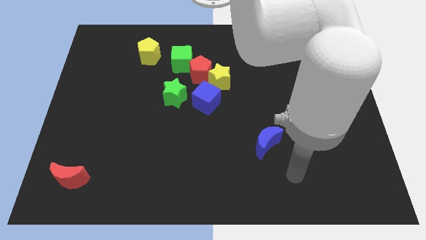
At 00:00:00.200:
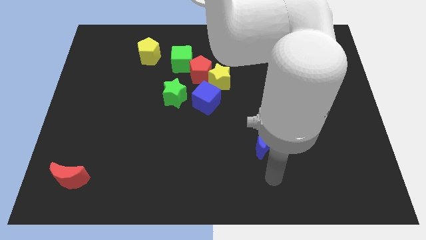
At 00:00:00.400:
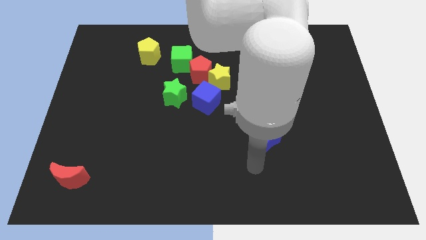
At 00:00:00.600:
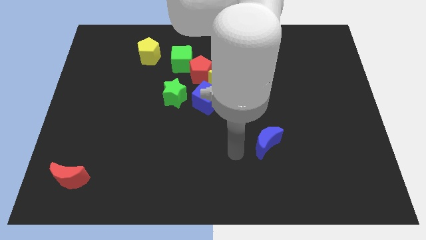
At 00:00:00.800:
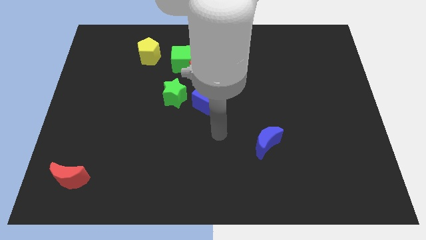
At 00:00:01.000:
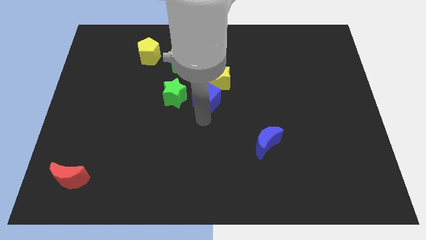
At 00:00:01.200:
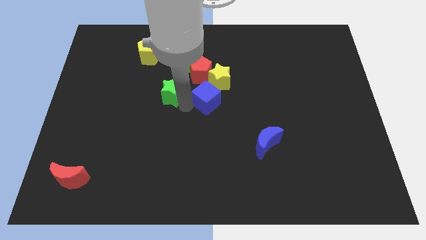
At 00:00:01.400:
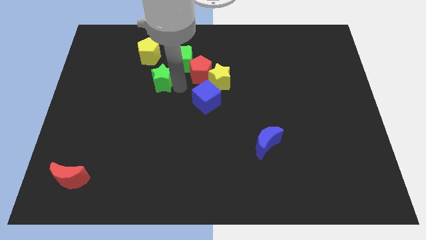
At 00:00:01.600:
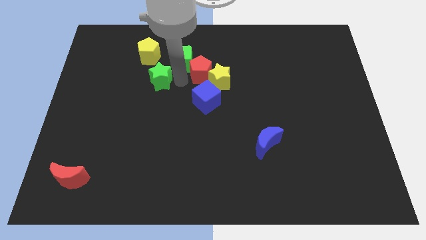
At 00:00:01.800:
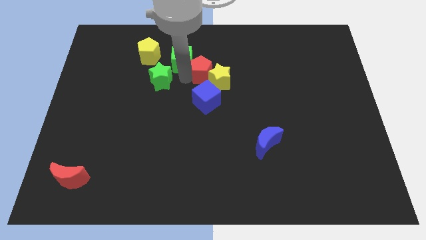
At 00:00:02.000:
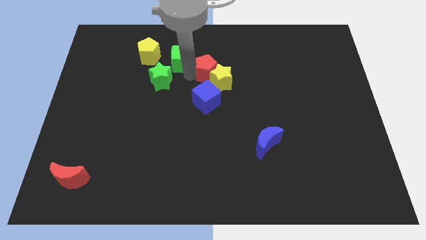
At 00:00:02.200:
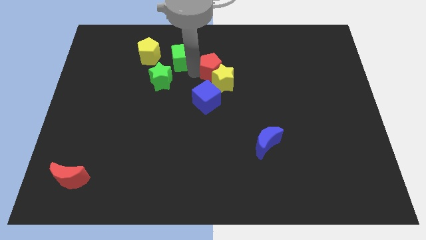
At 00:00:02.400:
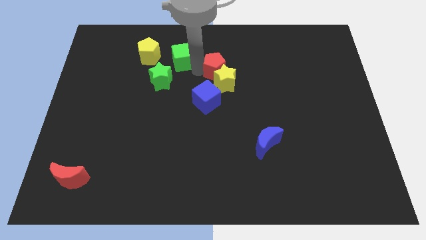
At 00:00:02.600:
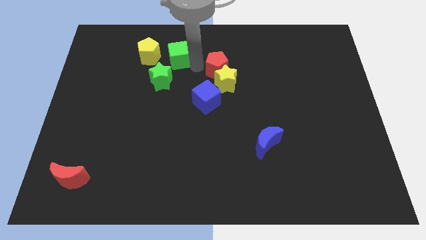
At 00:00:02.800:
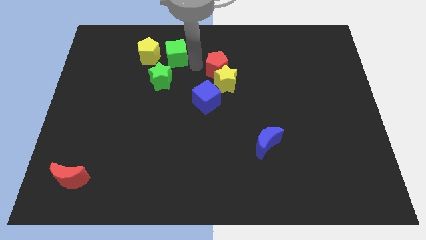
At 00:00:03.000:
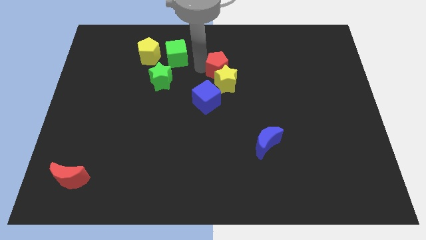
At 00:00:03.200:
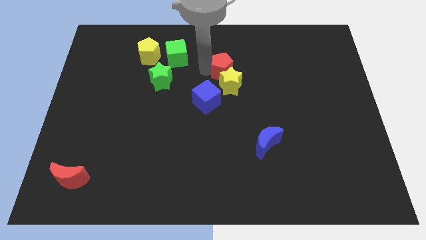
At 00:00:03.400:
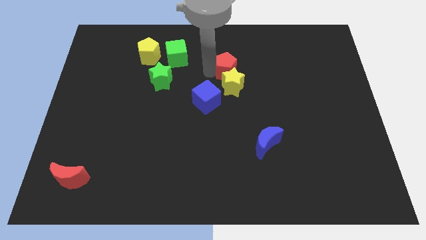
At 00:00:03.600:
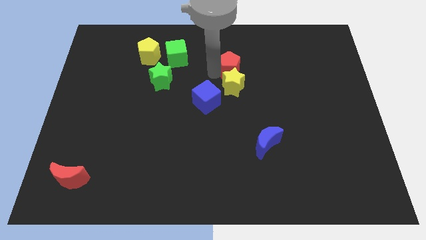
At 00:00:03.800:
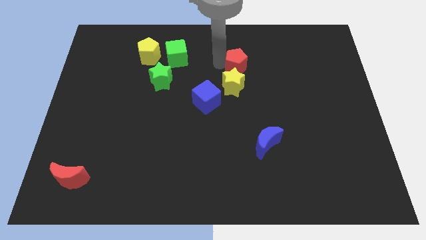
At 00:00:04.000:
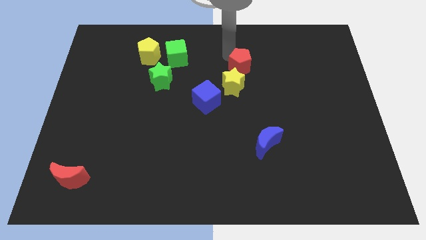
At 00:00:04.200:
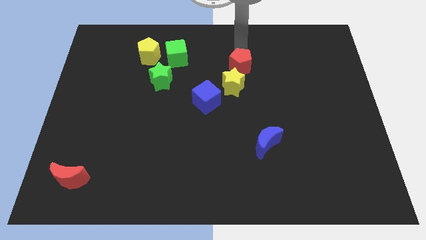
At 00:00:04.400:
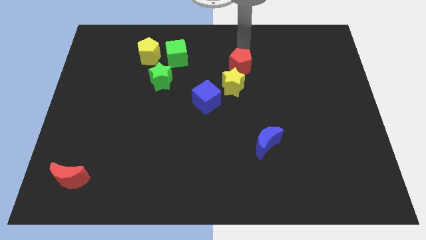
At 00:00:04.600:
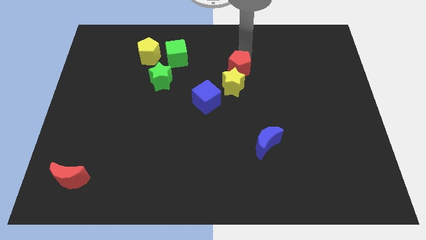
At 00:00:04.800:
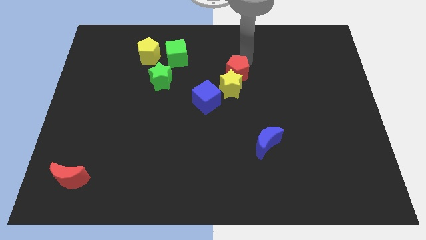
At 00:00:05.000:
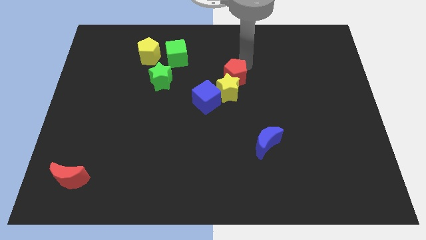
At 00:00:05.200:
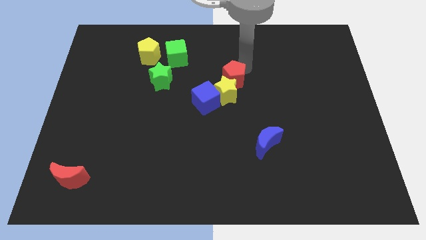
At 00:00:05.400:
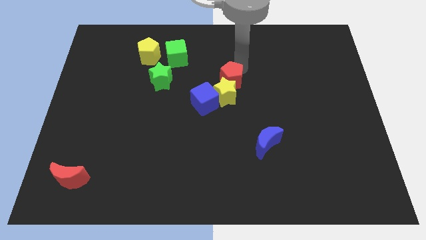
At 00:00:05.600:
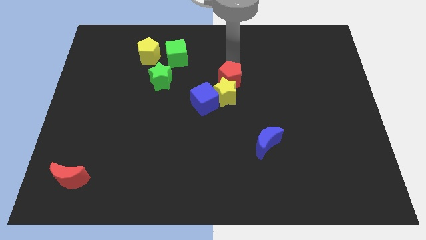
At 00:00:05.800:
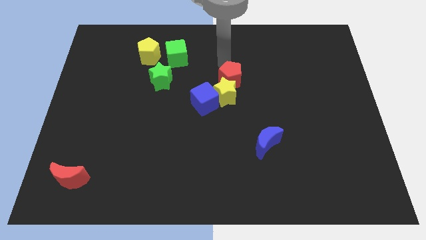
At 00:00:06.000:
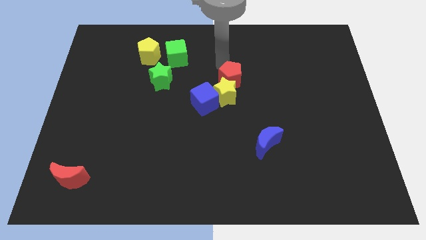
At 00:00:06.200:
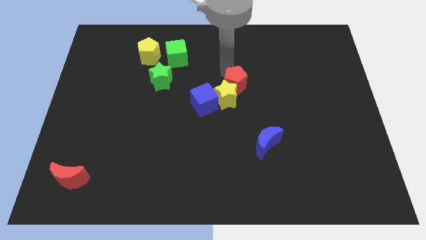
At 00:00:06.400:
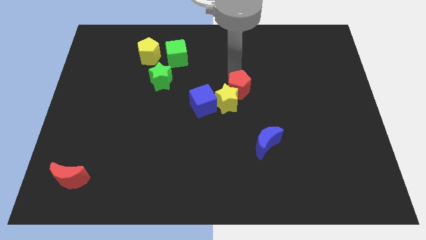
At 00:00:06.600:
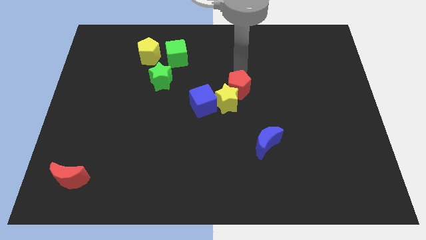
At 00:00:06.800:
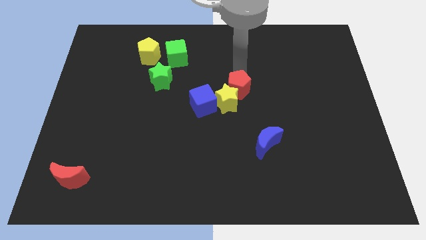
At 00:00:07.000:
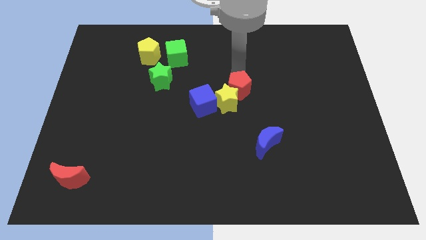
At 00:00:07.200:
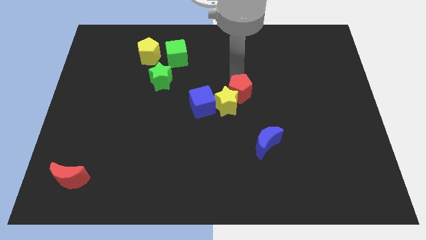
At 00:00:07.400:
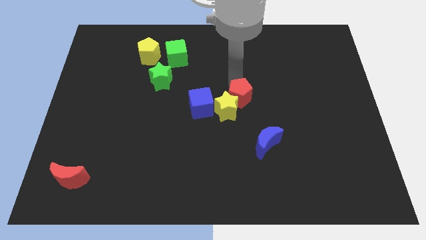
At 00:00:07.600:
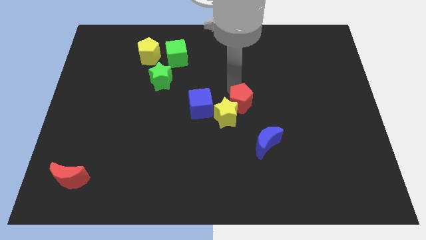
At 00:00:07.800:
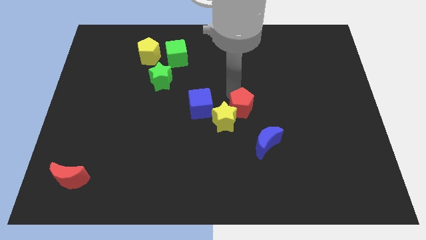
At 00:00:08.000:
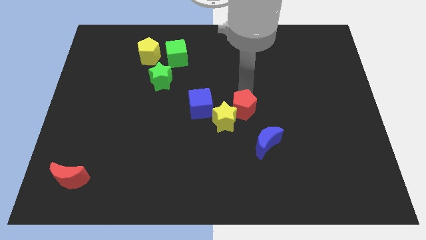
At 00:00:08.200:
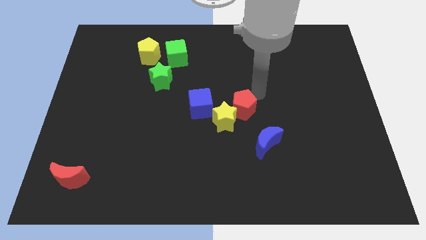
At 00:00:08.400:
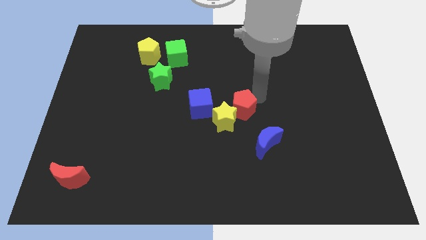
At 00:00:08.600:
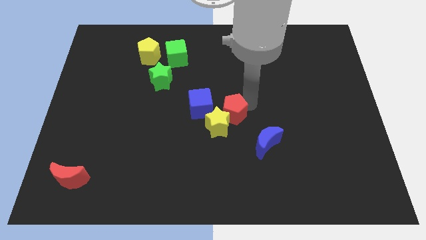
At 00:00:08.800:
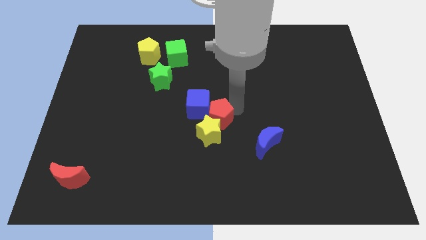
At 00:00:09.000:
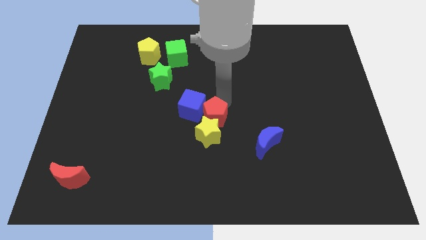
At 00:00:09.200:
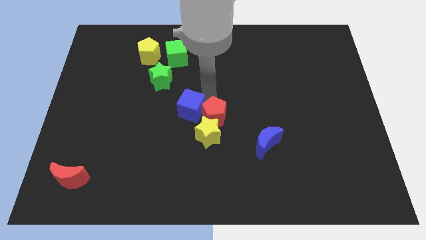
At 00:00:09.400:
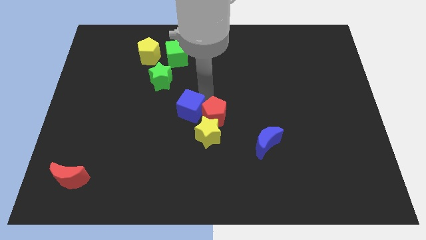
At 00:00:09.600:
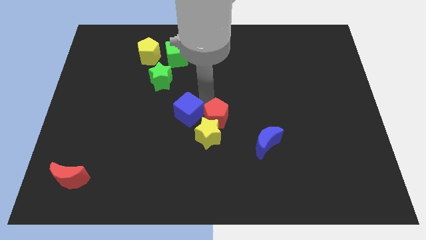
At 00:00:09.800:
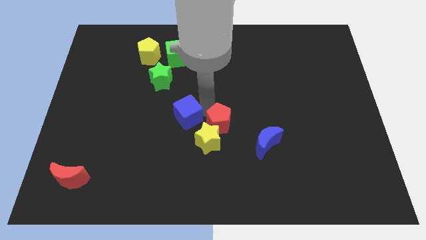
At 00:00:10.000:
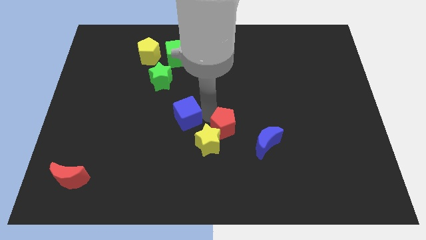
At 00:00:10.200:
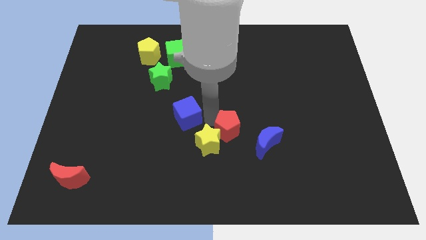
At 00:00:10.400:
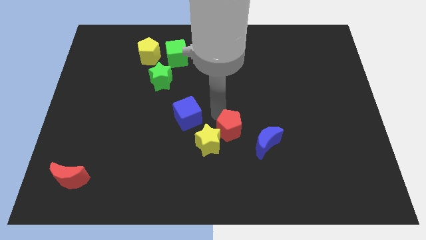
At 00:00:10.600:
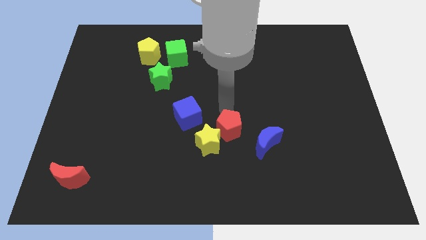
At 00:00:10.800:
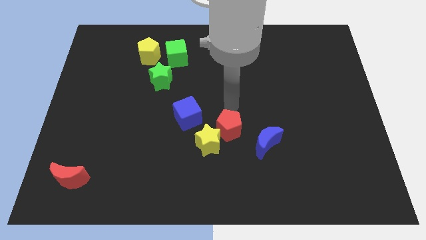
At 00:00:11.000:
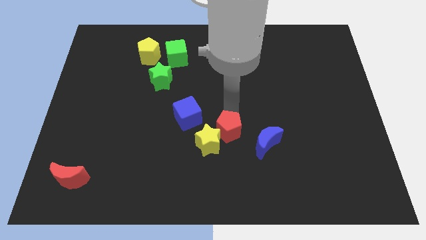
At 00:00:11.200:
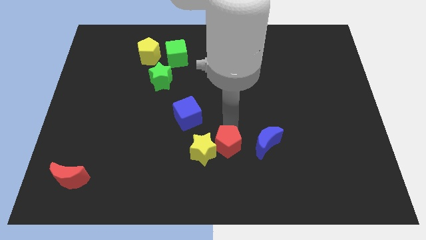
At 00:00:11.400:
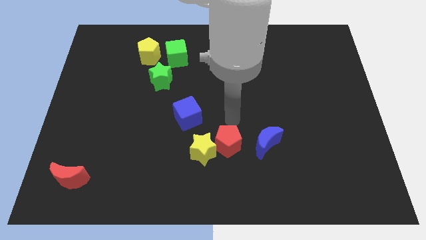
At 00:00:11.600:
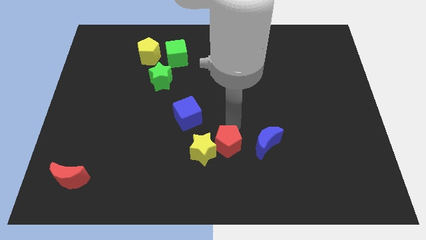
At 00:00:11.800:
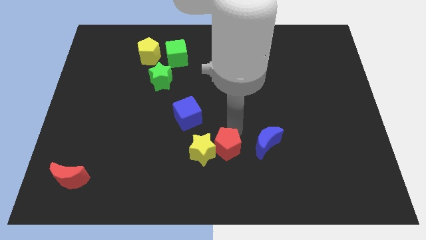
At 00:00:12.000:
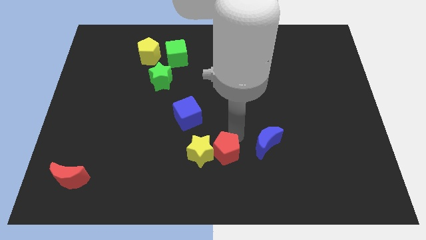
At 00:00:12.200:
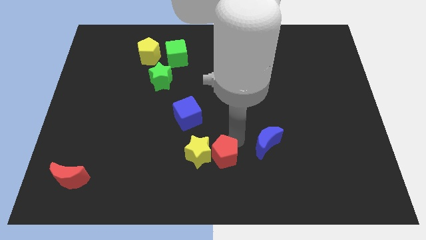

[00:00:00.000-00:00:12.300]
push the red pentagon to the bottom
